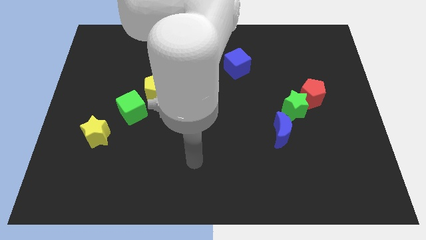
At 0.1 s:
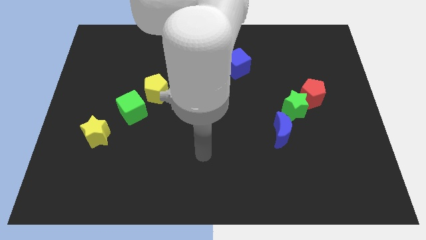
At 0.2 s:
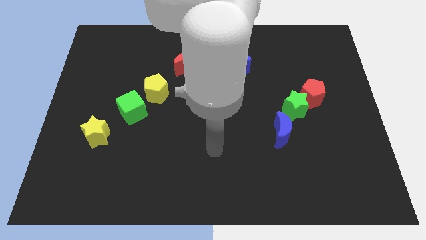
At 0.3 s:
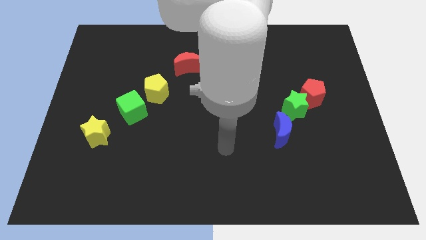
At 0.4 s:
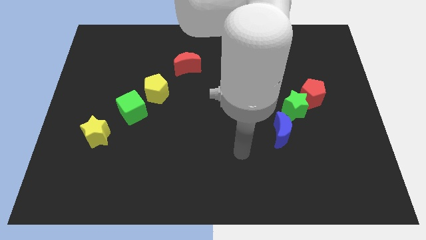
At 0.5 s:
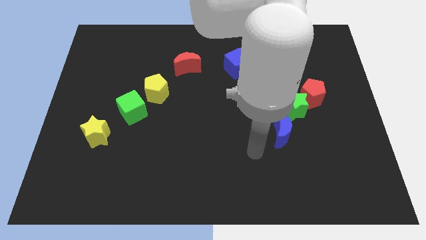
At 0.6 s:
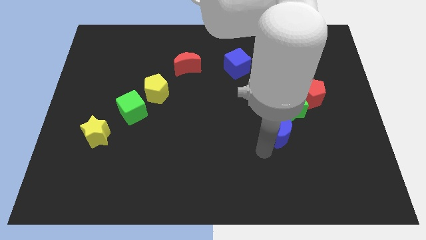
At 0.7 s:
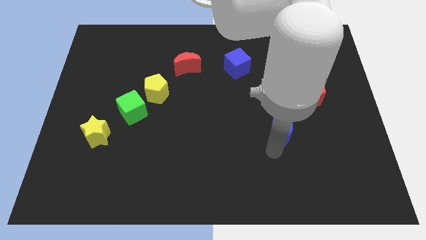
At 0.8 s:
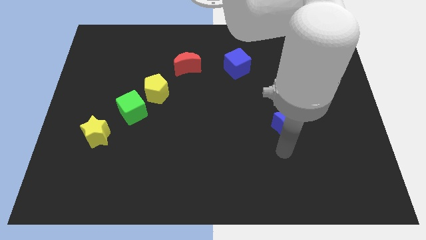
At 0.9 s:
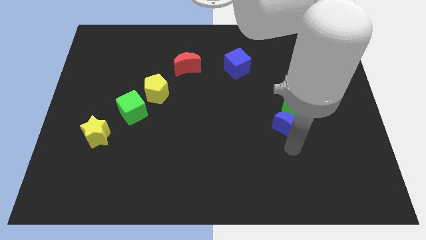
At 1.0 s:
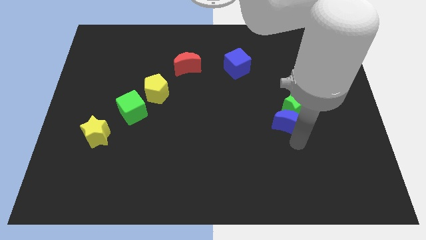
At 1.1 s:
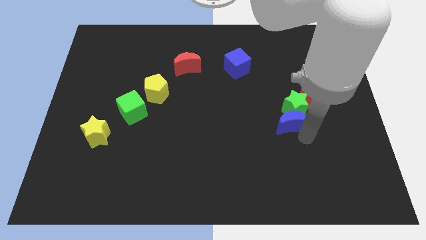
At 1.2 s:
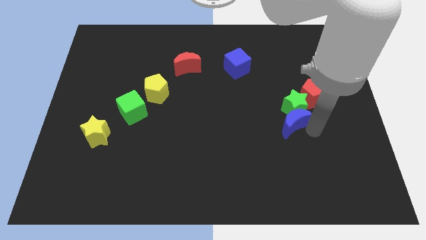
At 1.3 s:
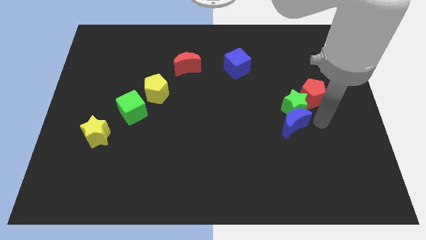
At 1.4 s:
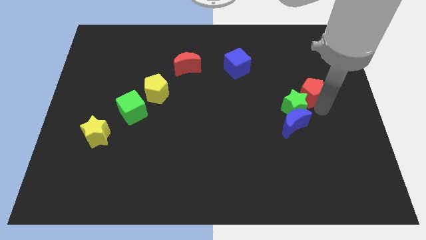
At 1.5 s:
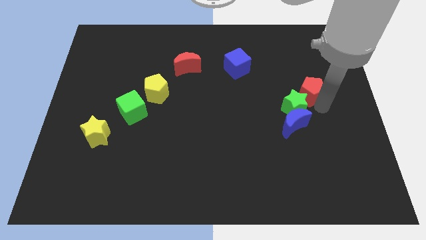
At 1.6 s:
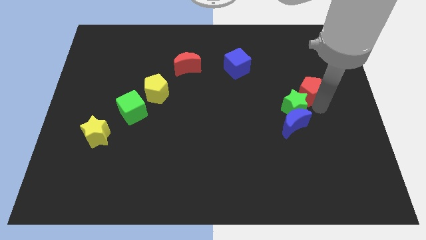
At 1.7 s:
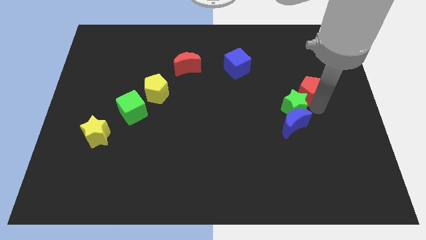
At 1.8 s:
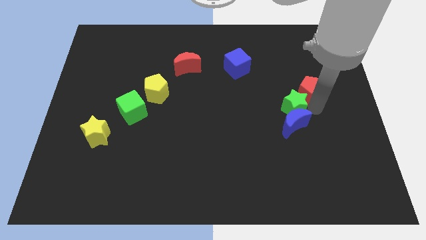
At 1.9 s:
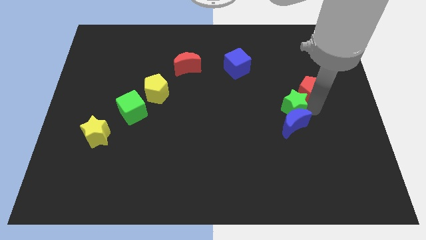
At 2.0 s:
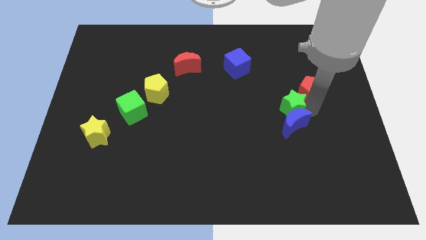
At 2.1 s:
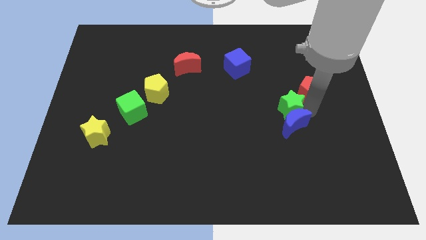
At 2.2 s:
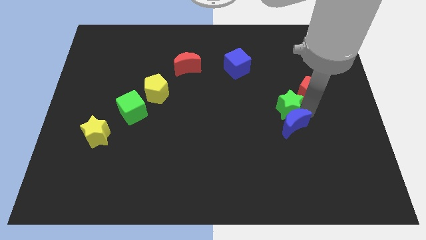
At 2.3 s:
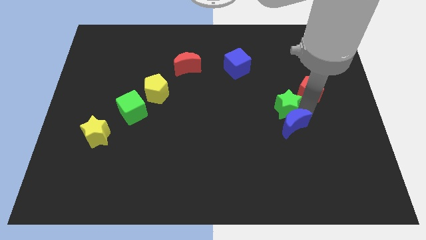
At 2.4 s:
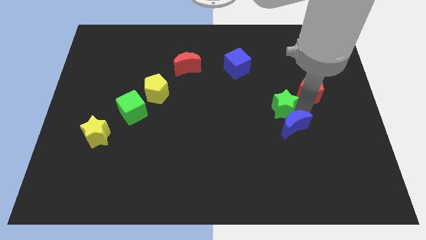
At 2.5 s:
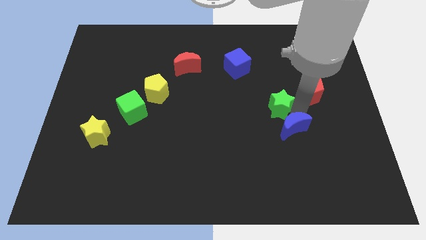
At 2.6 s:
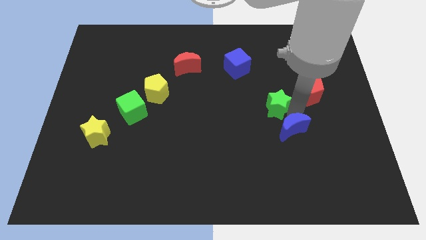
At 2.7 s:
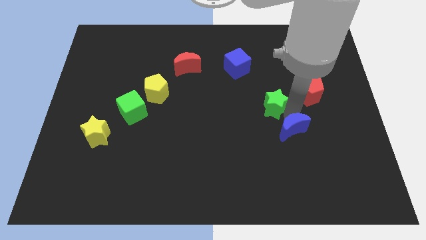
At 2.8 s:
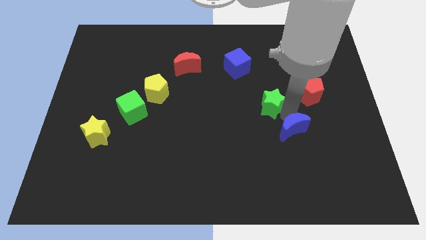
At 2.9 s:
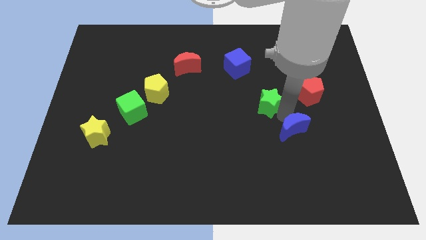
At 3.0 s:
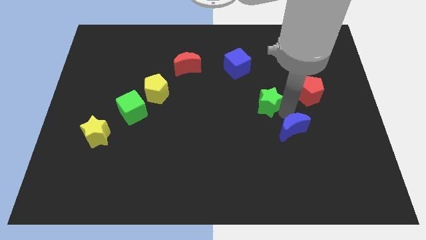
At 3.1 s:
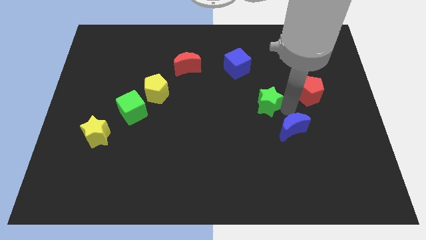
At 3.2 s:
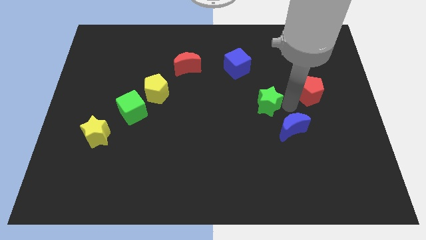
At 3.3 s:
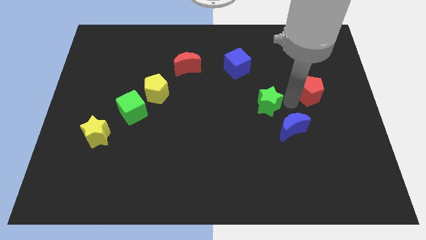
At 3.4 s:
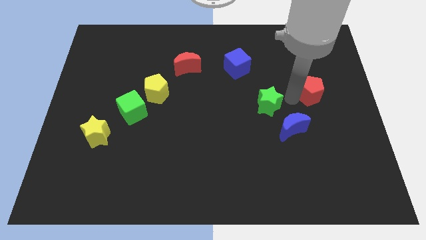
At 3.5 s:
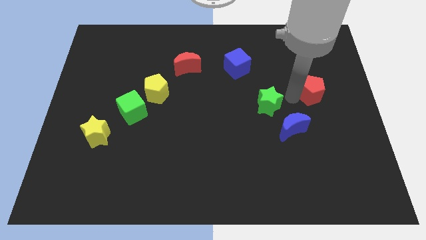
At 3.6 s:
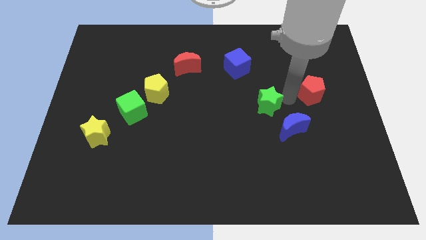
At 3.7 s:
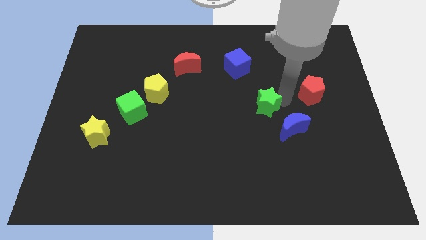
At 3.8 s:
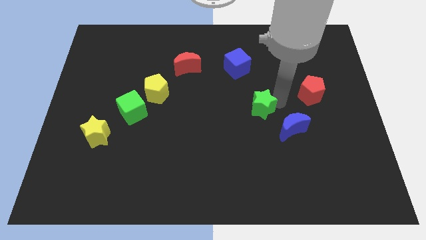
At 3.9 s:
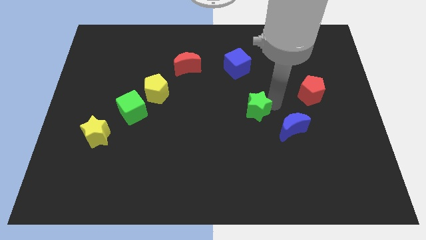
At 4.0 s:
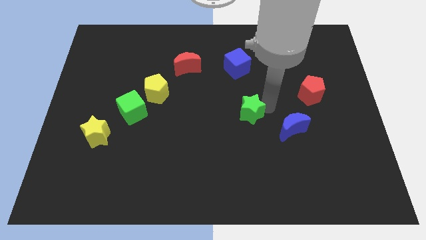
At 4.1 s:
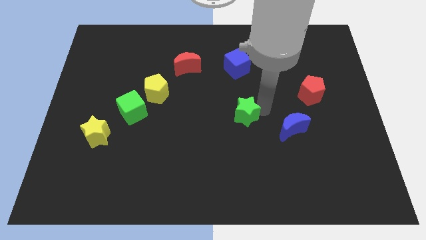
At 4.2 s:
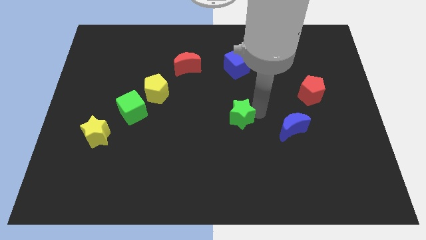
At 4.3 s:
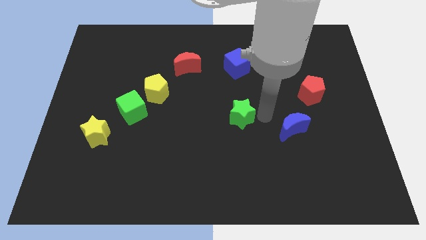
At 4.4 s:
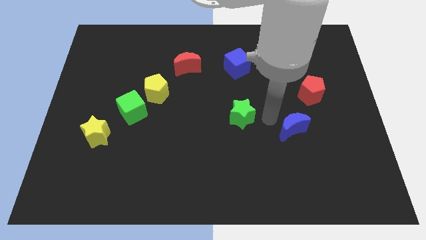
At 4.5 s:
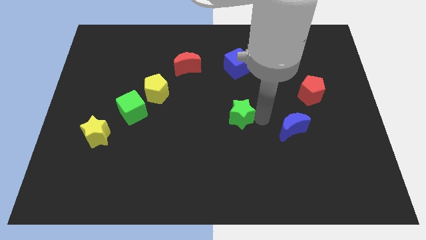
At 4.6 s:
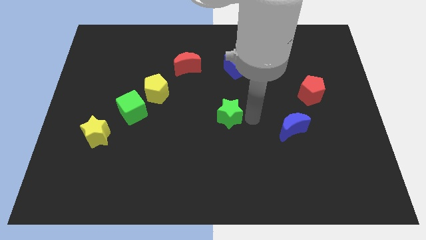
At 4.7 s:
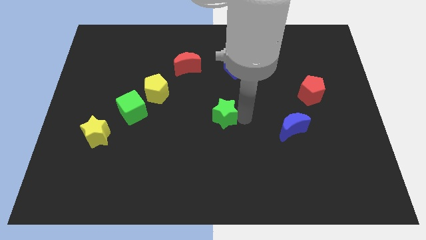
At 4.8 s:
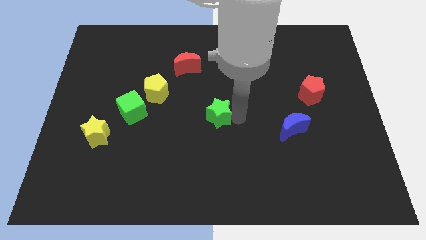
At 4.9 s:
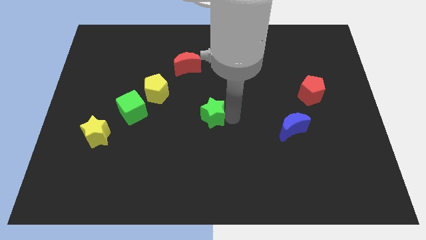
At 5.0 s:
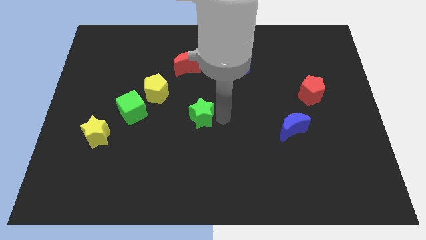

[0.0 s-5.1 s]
put the green star to the right of the green cube

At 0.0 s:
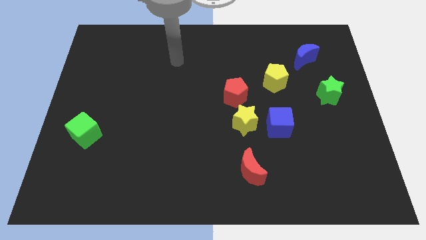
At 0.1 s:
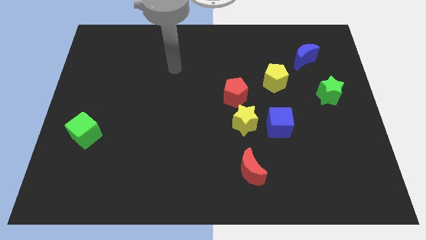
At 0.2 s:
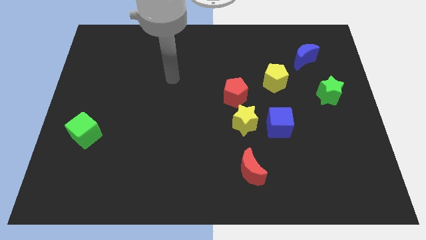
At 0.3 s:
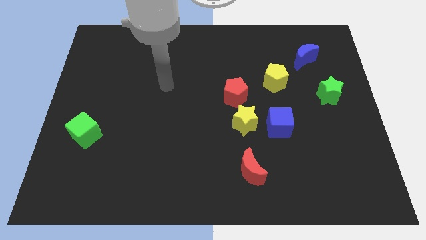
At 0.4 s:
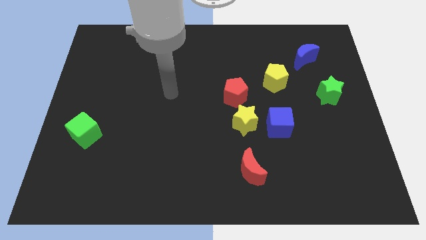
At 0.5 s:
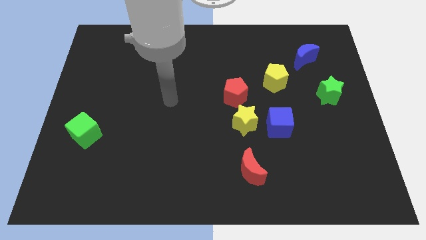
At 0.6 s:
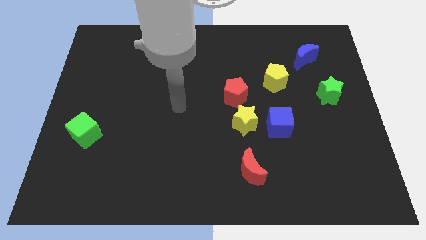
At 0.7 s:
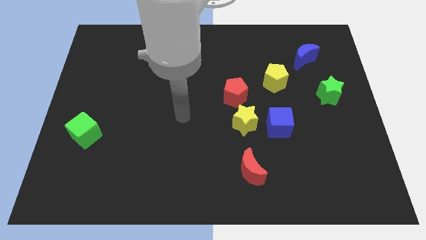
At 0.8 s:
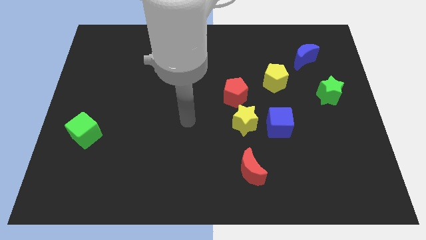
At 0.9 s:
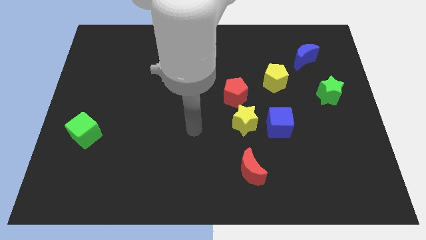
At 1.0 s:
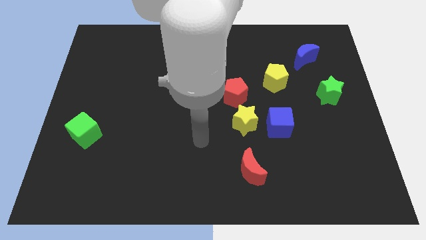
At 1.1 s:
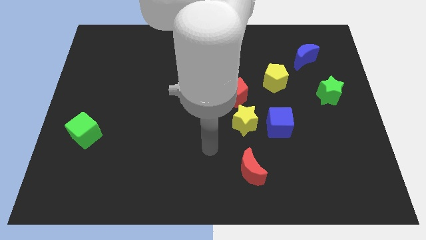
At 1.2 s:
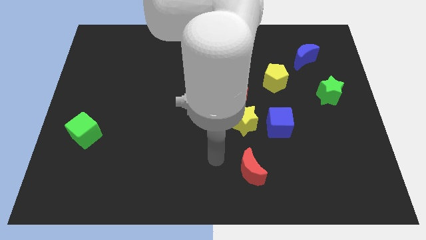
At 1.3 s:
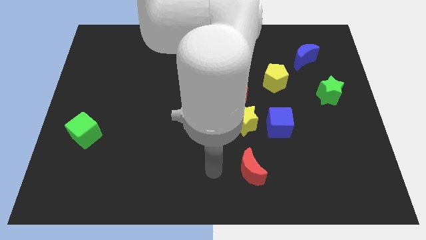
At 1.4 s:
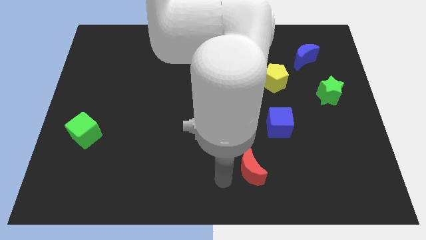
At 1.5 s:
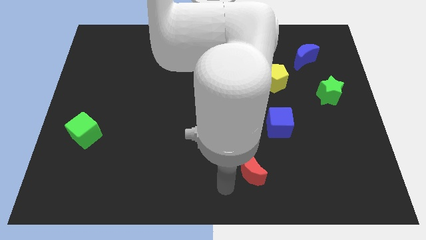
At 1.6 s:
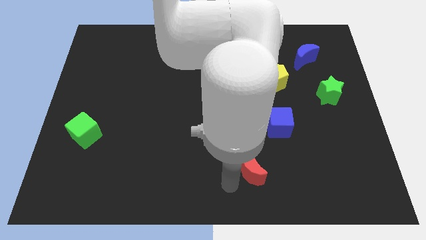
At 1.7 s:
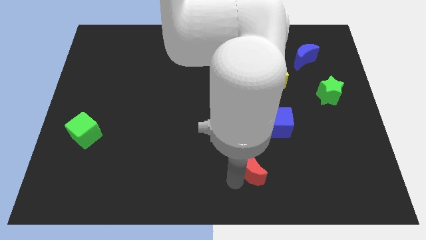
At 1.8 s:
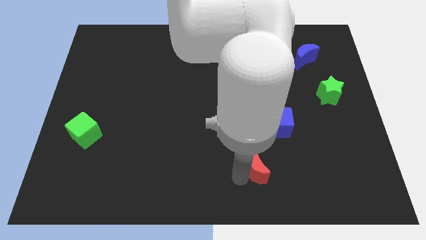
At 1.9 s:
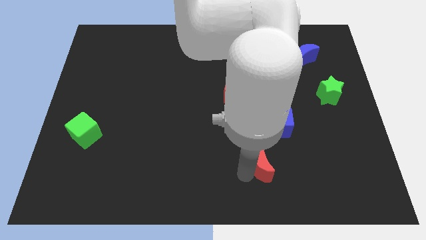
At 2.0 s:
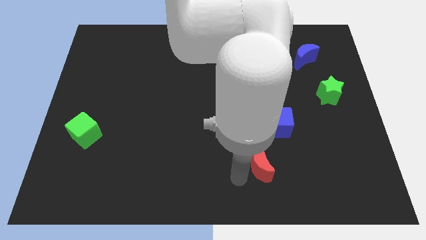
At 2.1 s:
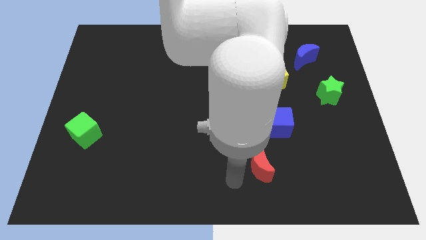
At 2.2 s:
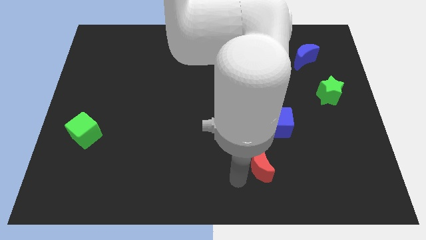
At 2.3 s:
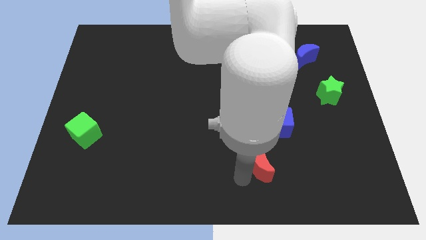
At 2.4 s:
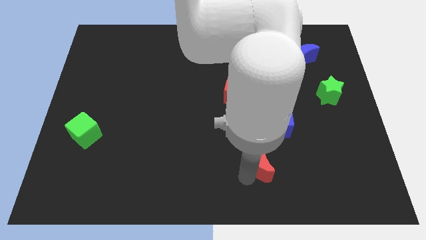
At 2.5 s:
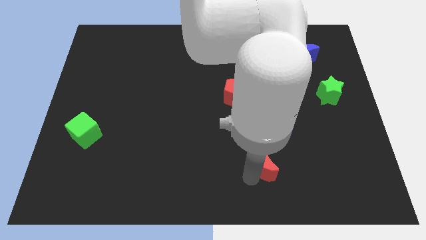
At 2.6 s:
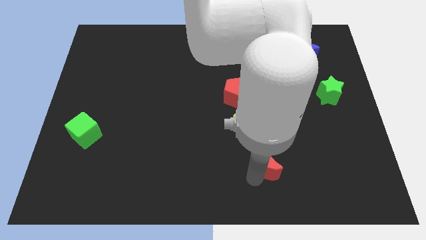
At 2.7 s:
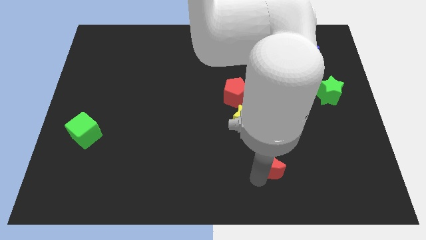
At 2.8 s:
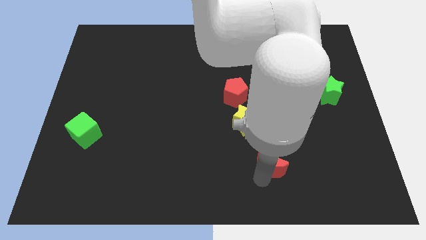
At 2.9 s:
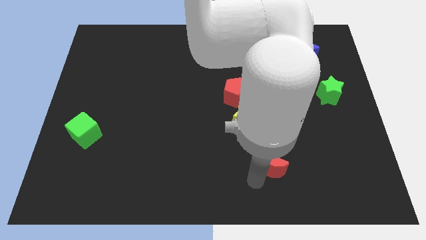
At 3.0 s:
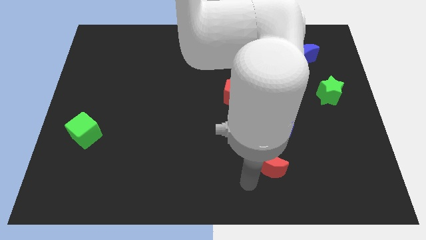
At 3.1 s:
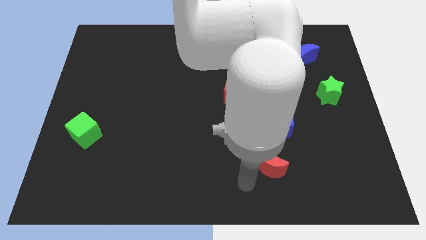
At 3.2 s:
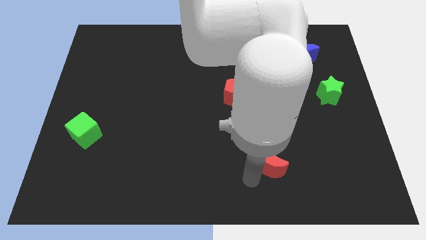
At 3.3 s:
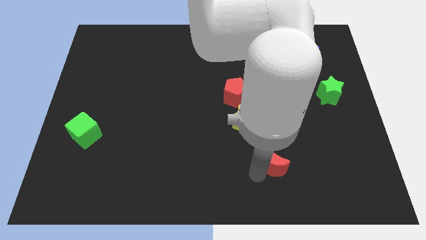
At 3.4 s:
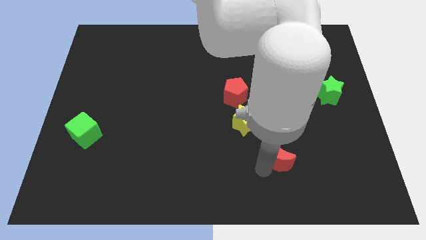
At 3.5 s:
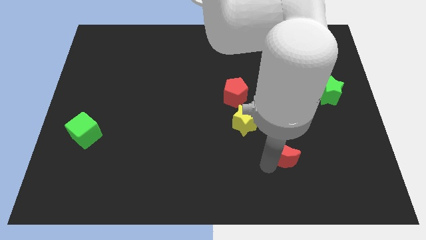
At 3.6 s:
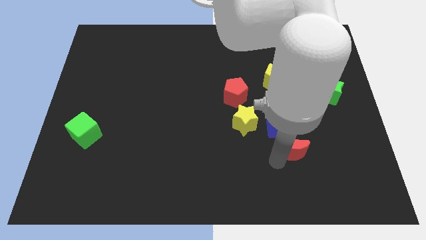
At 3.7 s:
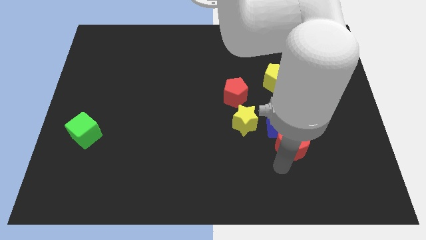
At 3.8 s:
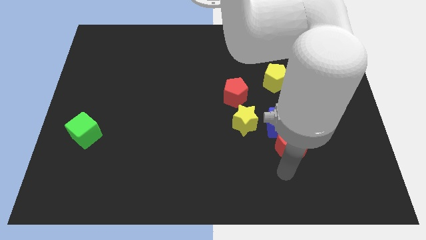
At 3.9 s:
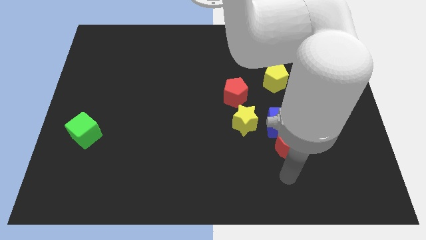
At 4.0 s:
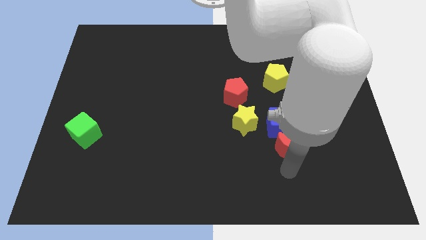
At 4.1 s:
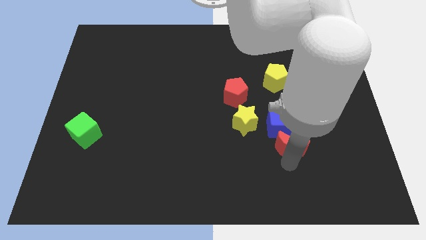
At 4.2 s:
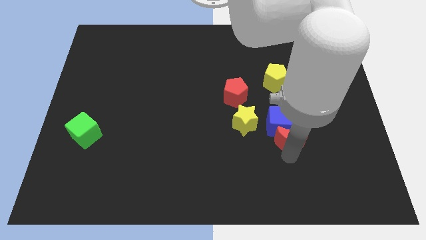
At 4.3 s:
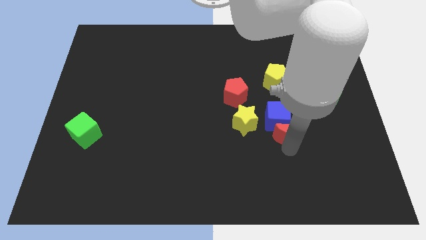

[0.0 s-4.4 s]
push the red moon right of the yellow star
